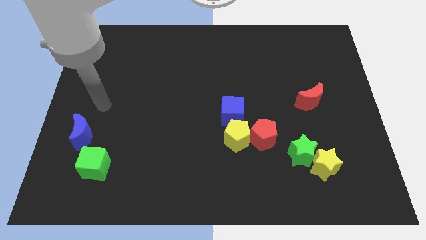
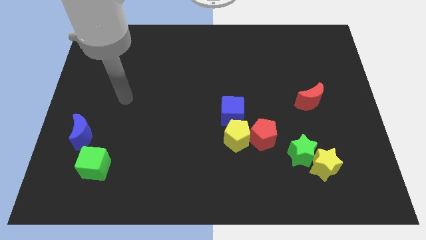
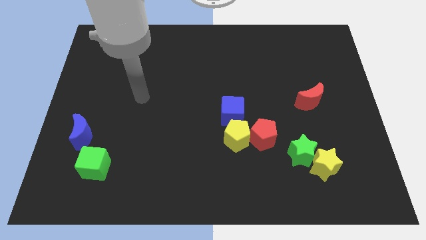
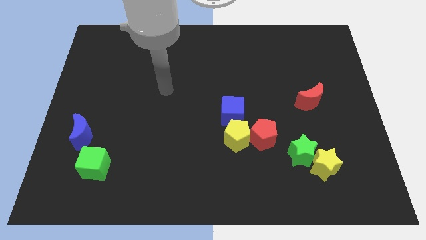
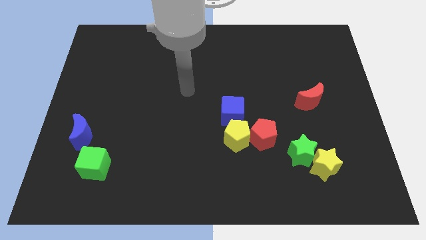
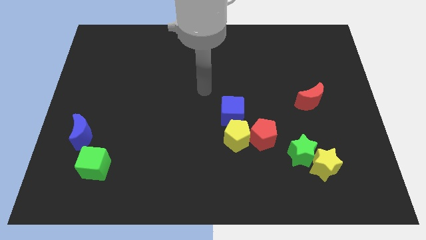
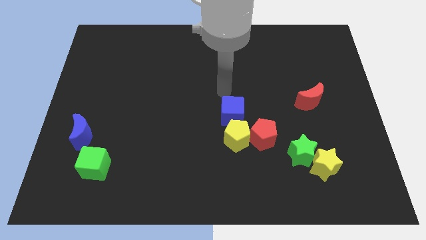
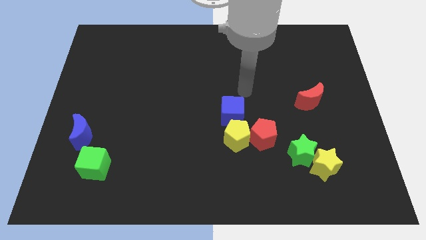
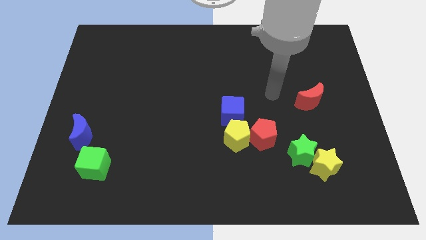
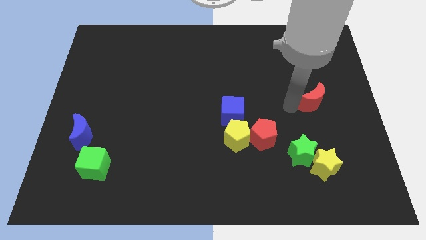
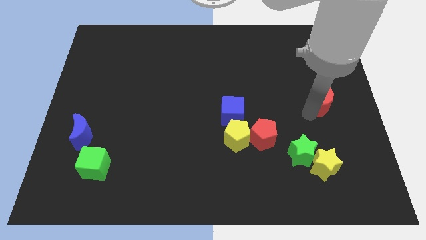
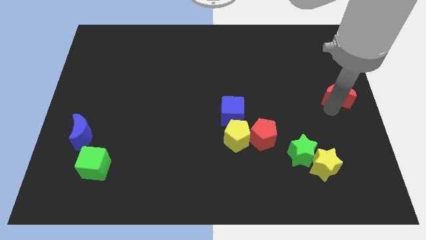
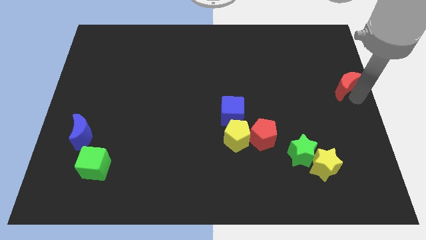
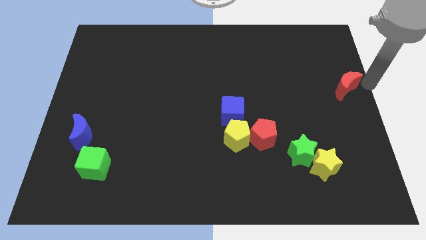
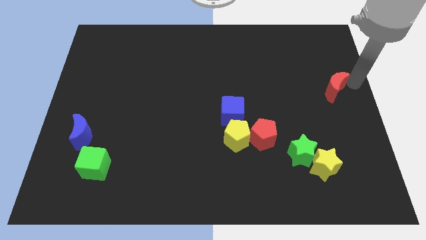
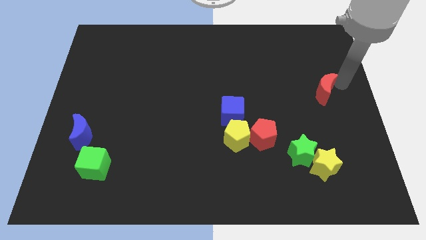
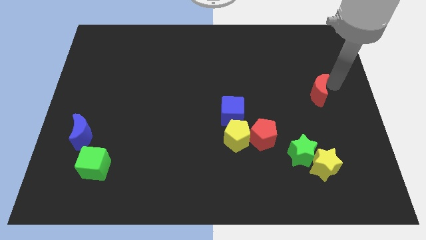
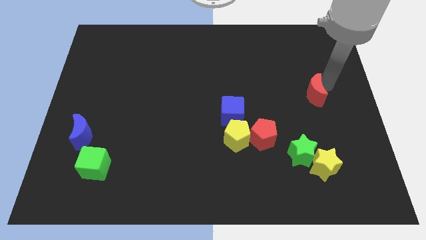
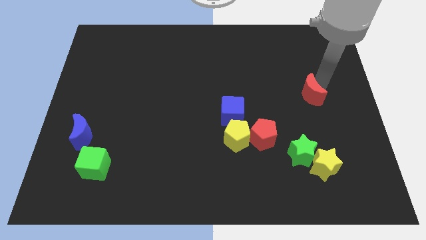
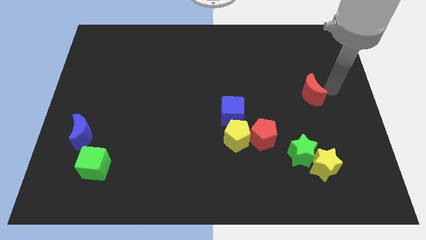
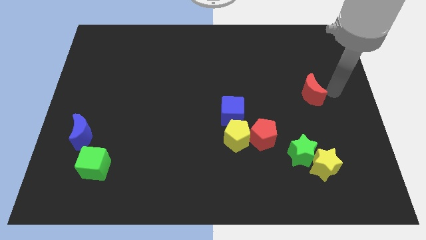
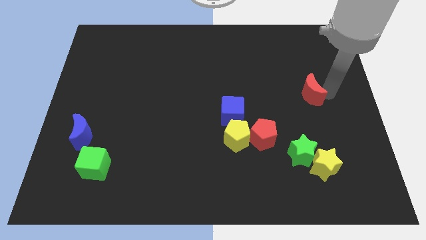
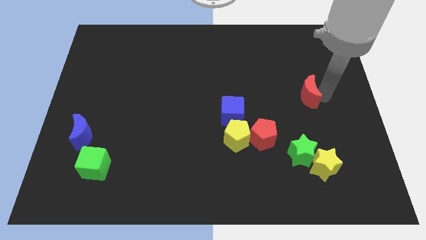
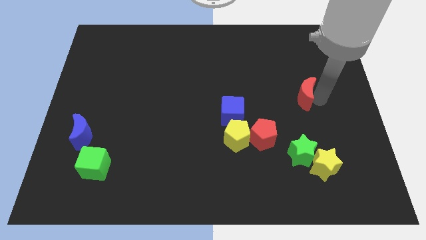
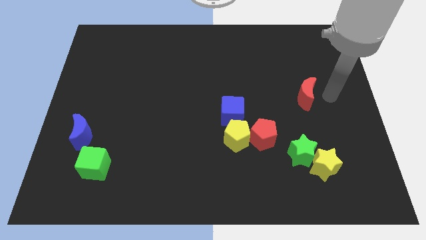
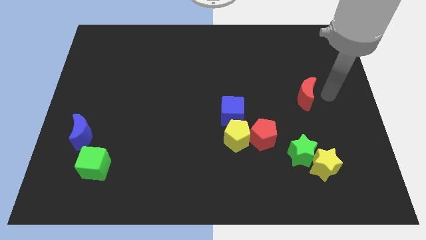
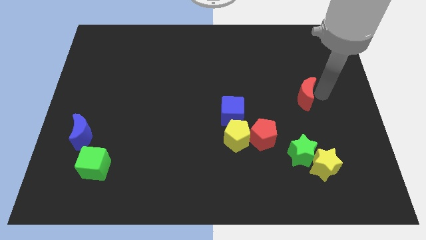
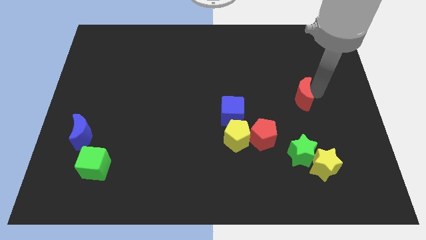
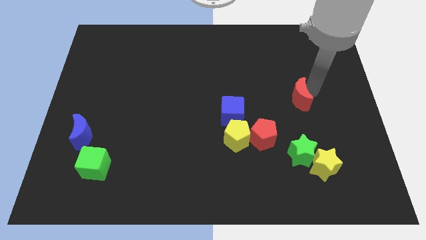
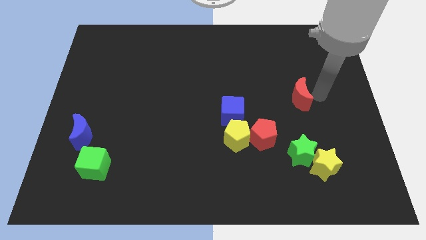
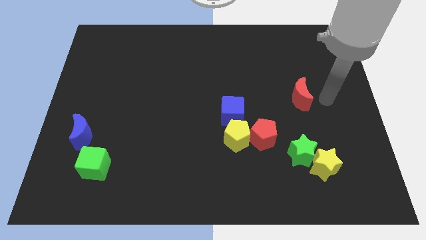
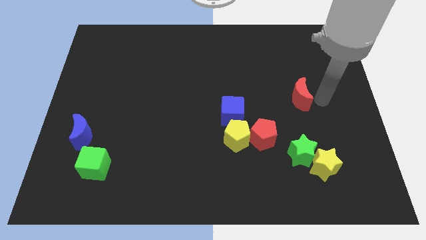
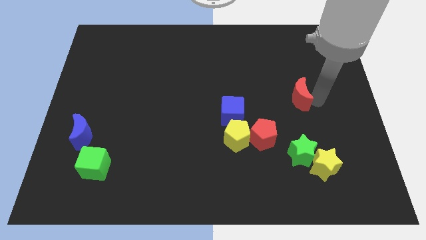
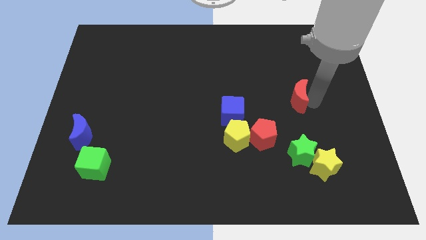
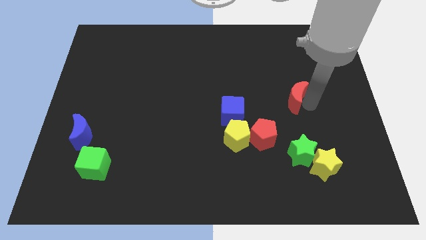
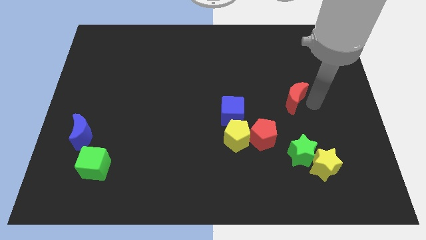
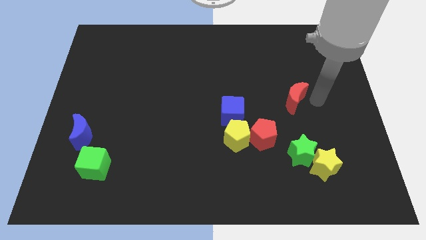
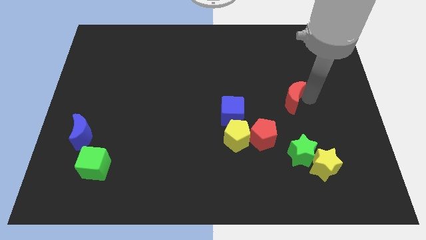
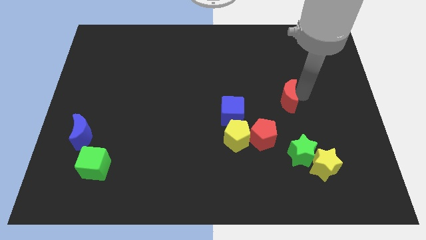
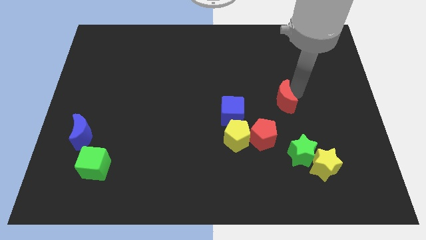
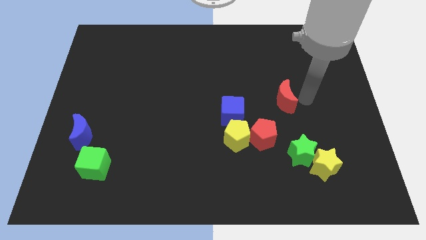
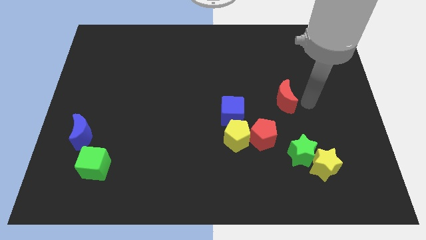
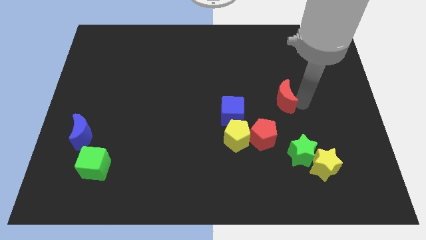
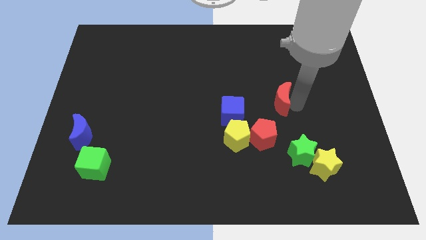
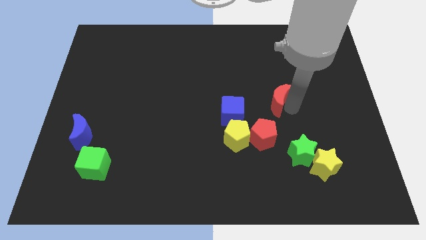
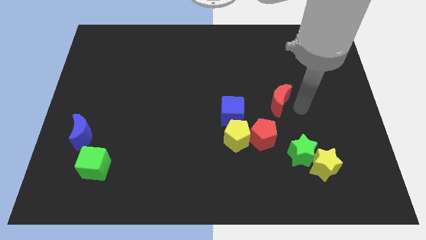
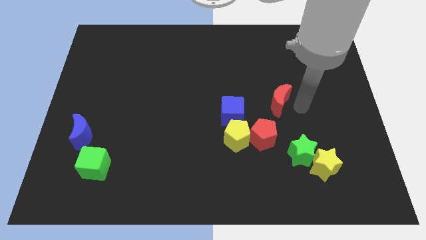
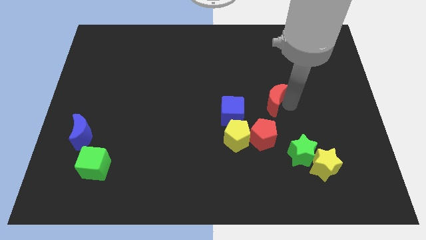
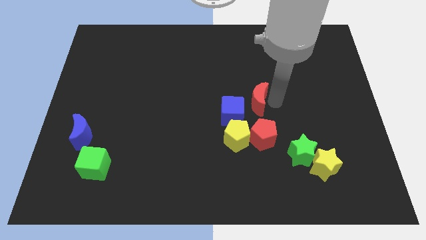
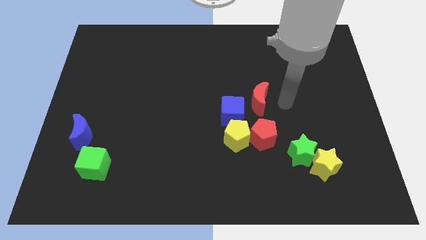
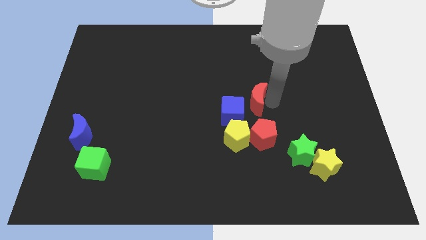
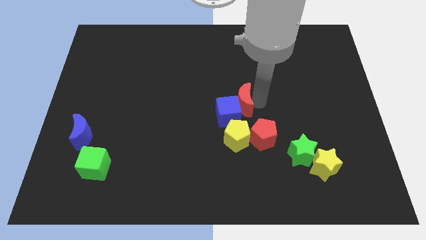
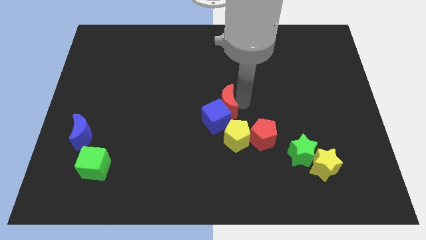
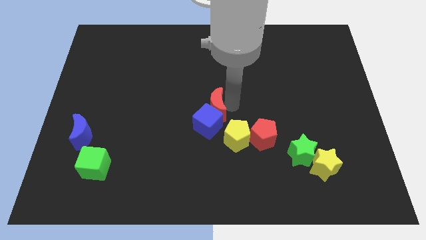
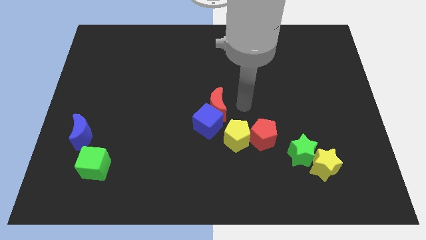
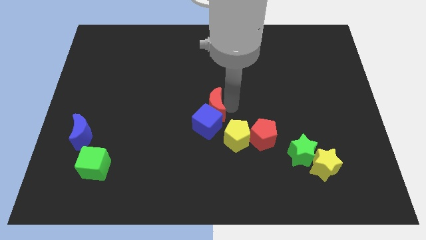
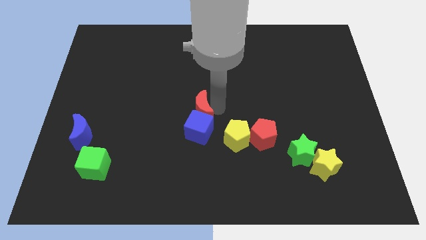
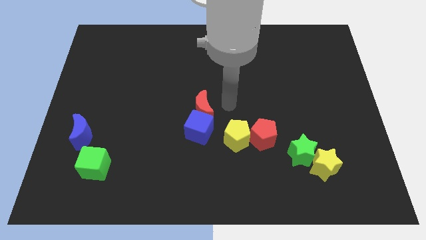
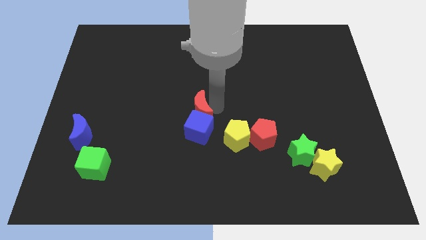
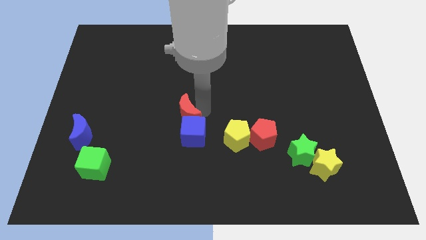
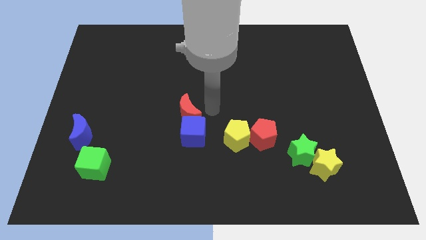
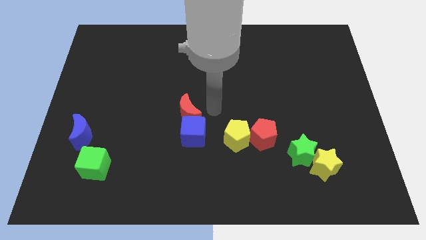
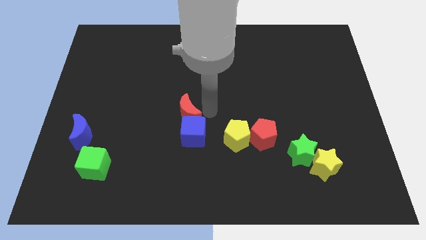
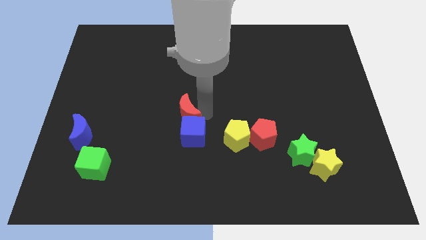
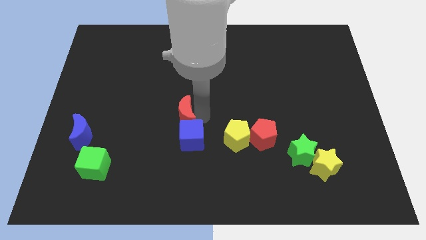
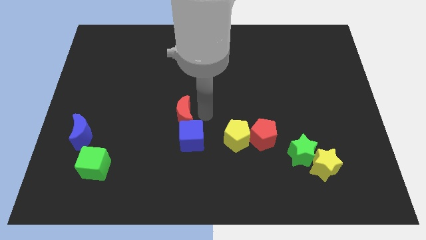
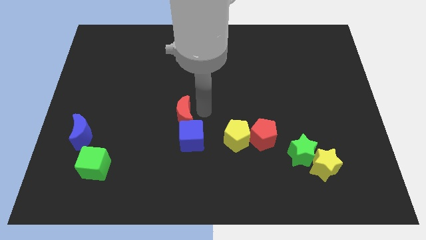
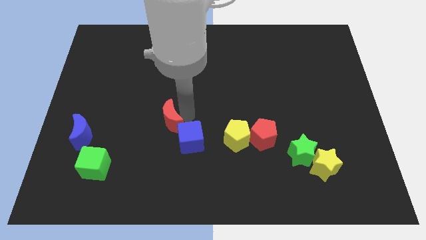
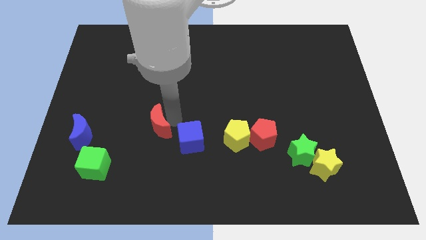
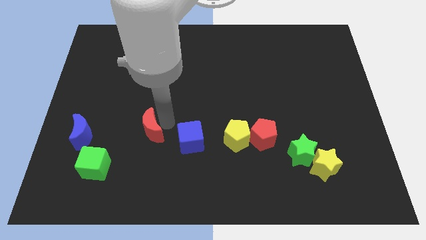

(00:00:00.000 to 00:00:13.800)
move the red moon just right of the blue moon

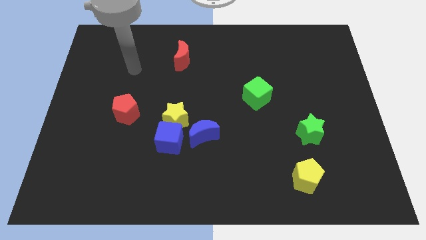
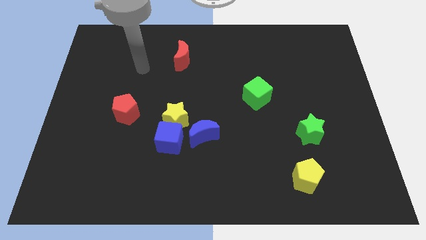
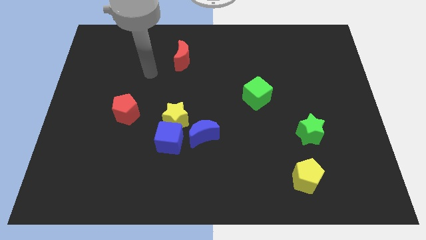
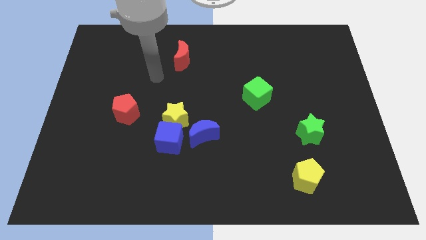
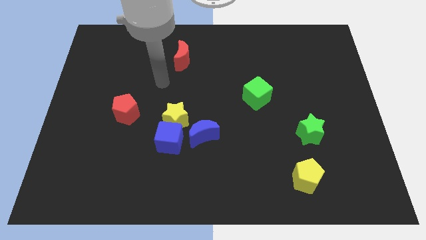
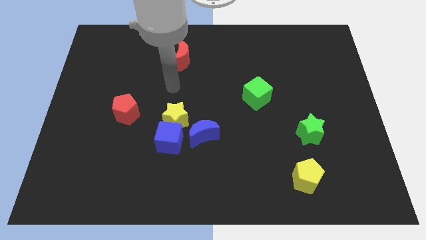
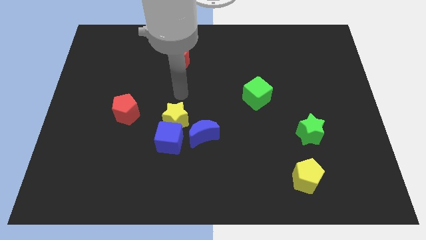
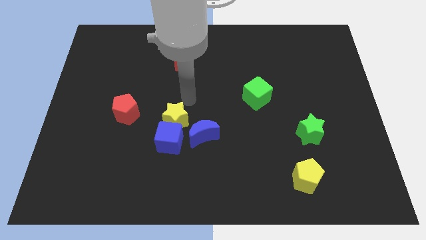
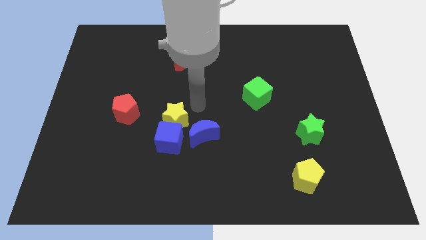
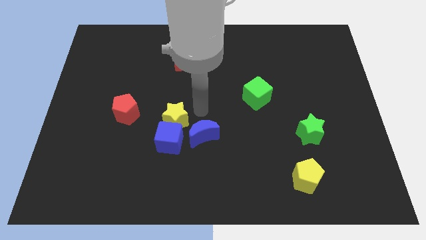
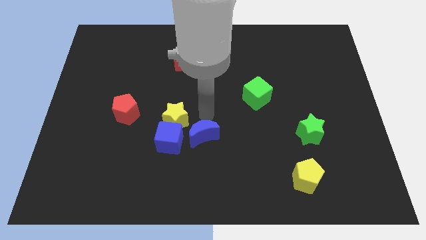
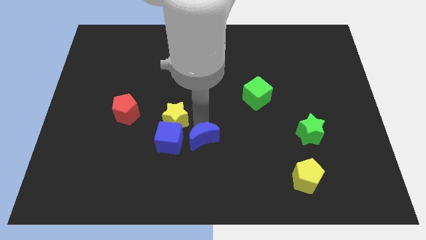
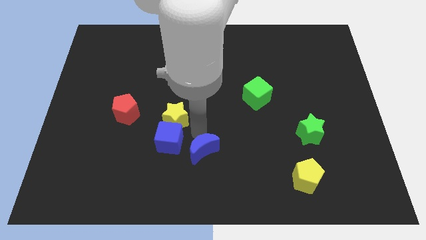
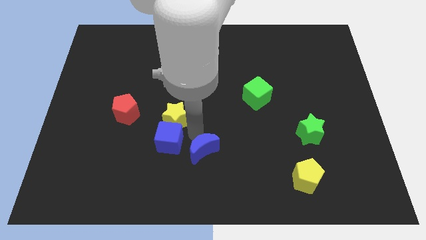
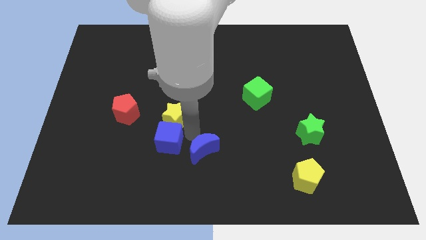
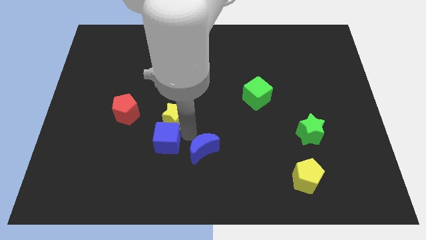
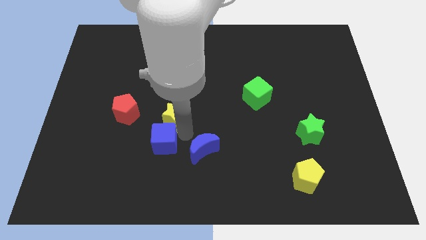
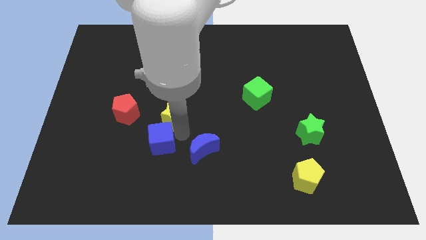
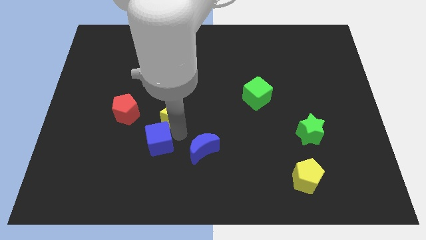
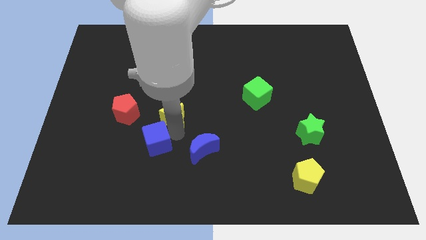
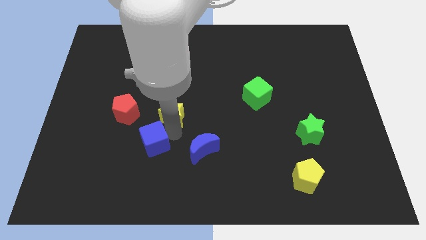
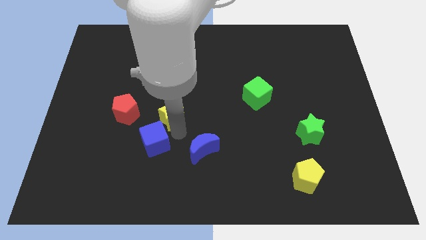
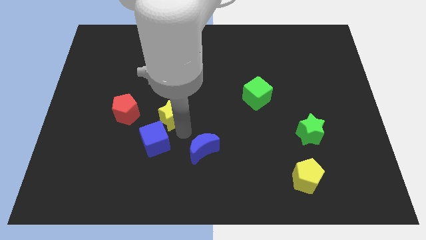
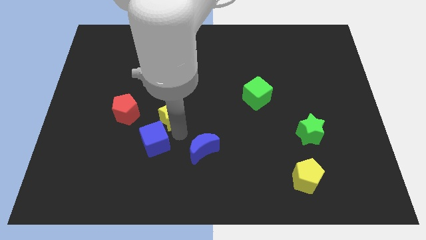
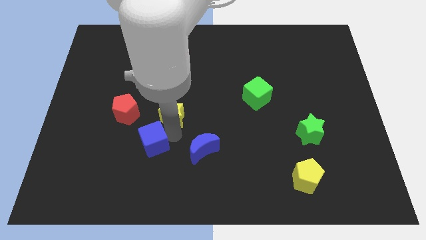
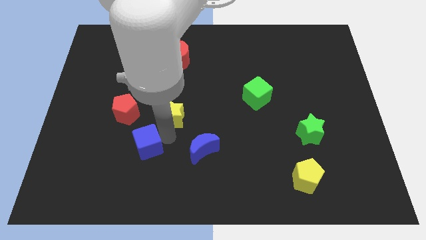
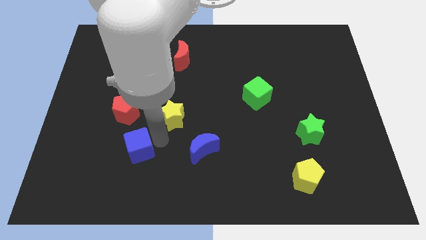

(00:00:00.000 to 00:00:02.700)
put the blue cube below the red pentagon
